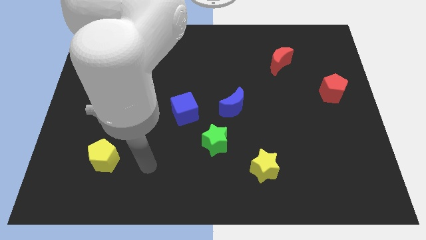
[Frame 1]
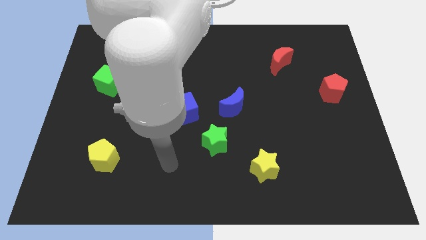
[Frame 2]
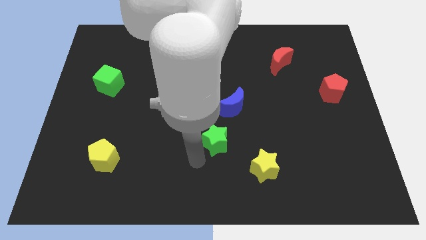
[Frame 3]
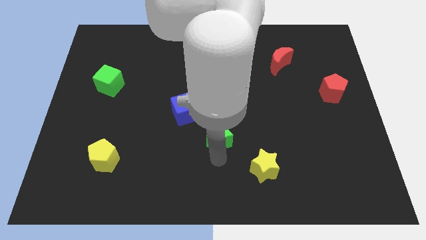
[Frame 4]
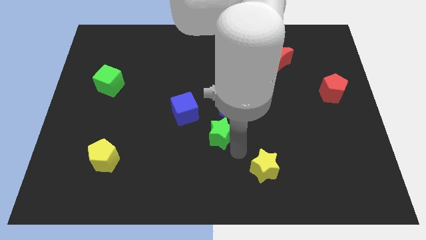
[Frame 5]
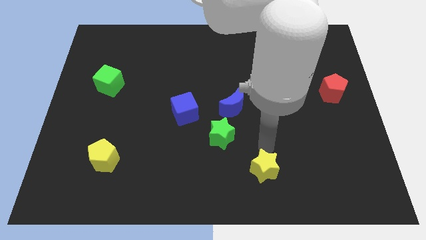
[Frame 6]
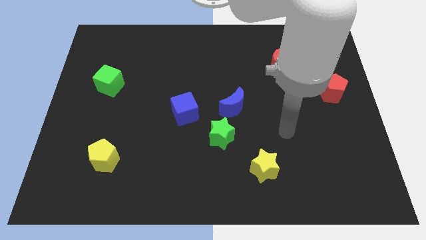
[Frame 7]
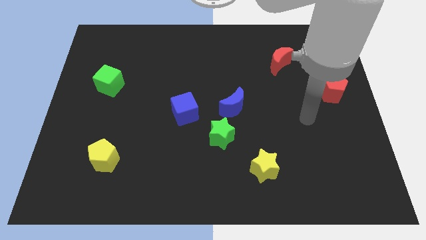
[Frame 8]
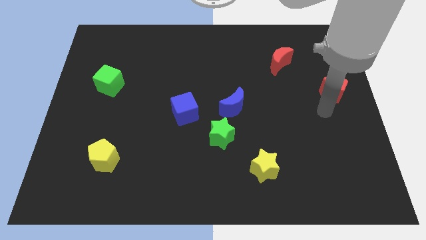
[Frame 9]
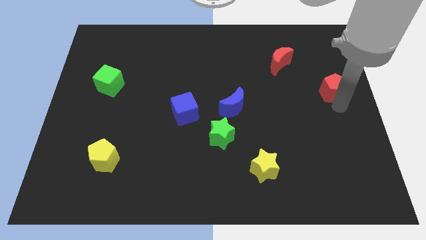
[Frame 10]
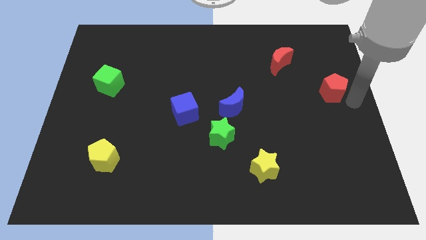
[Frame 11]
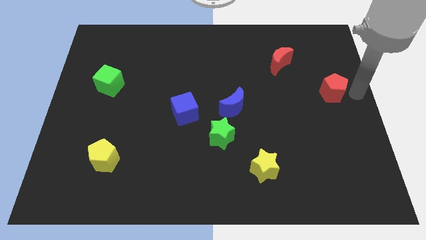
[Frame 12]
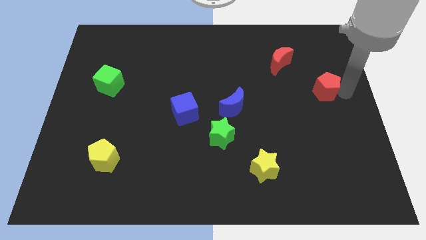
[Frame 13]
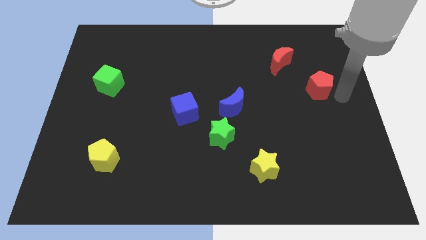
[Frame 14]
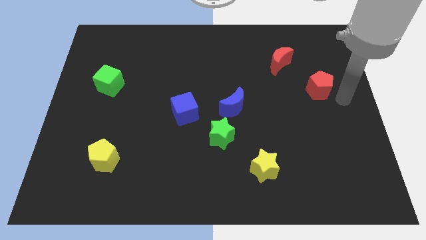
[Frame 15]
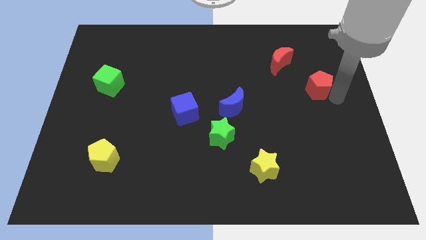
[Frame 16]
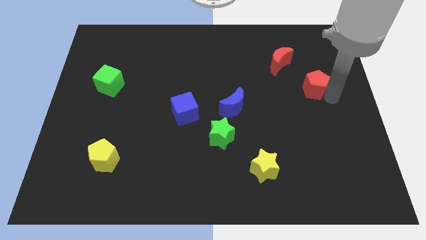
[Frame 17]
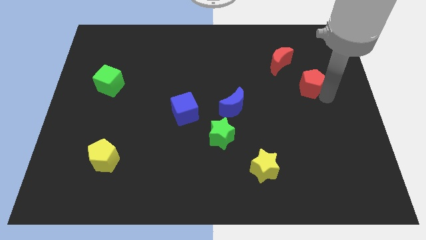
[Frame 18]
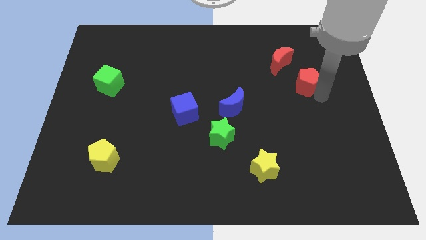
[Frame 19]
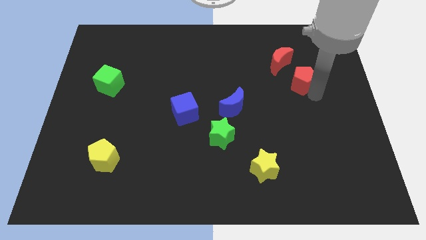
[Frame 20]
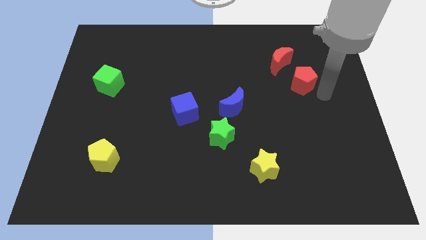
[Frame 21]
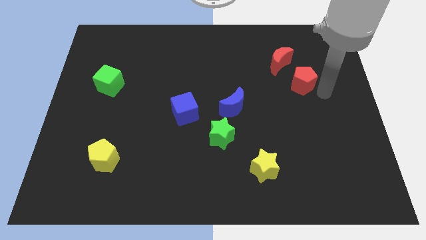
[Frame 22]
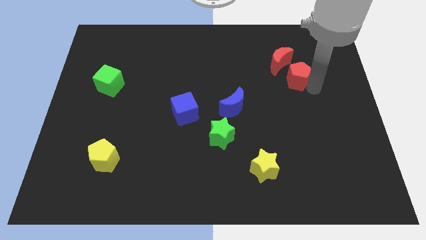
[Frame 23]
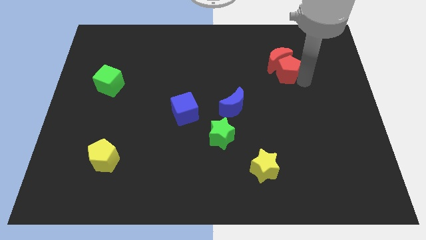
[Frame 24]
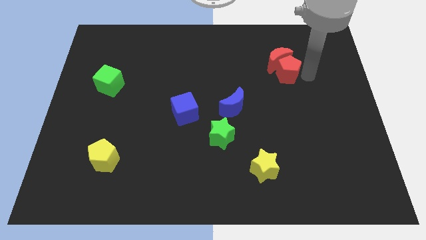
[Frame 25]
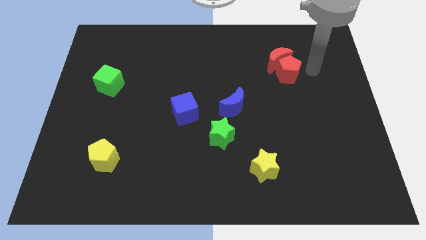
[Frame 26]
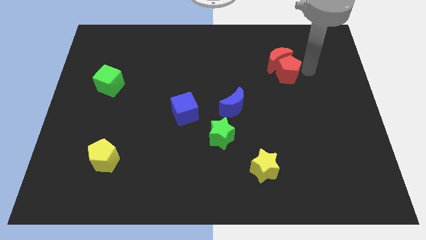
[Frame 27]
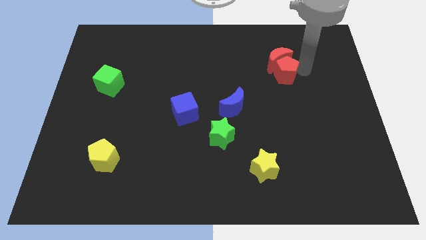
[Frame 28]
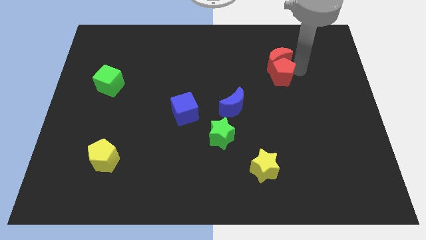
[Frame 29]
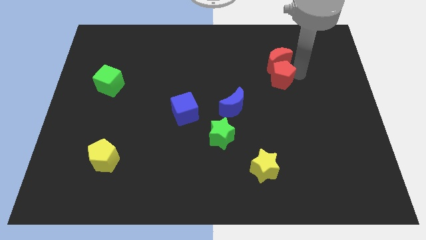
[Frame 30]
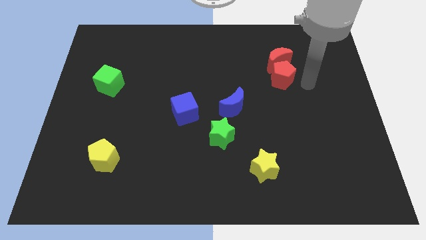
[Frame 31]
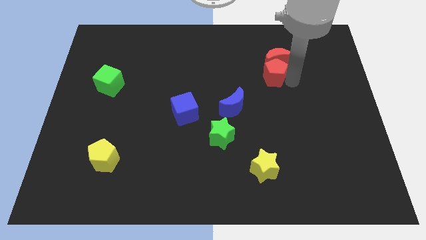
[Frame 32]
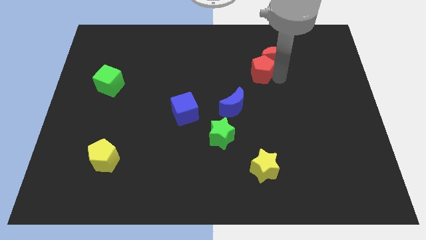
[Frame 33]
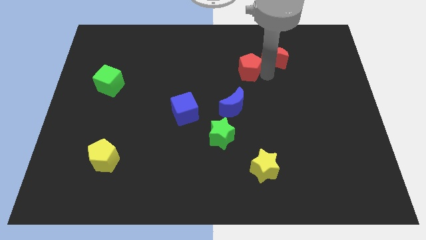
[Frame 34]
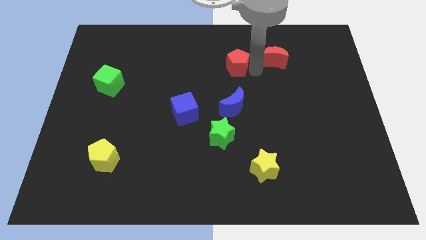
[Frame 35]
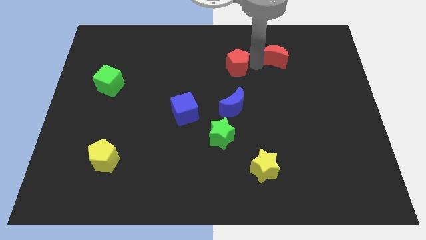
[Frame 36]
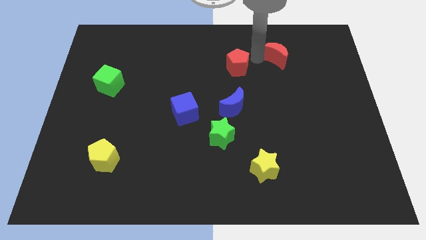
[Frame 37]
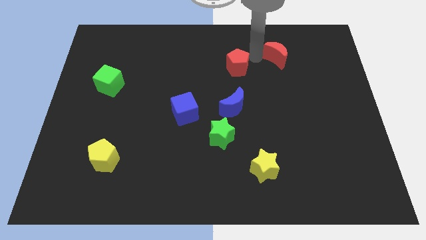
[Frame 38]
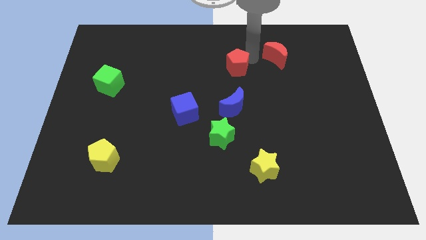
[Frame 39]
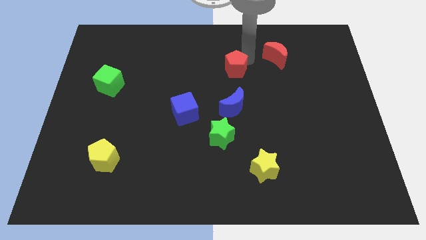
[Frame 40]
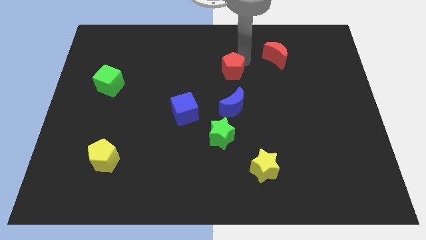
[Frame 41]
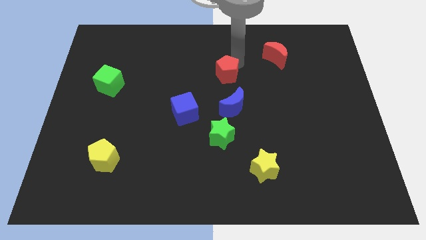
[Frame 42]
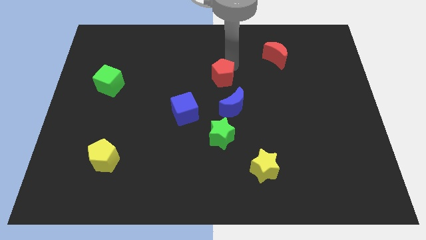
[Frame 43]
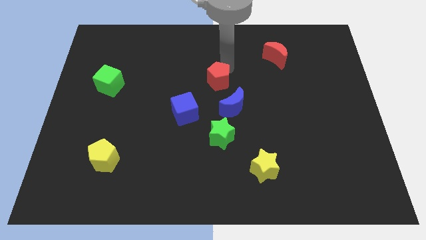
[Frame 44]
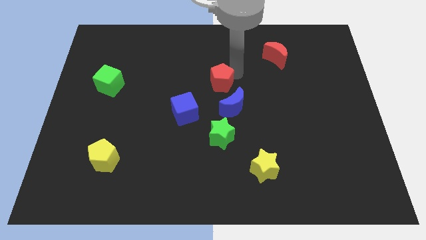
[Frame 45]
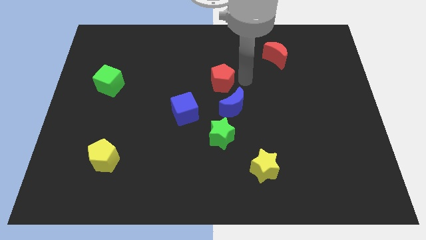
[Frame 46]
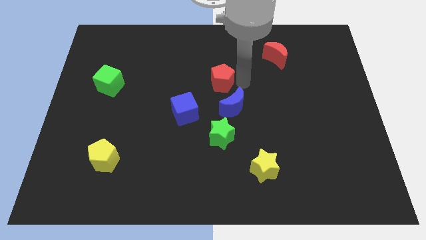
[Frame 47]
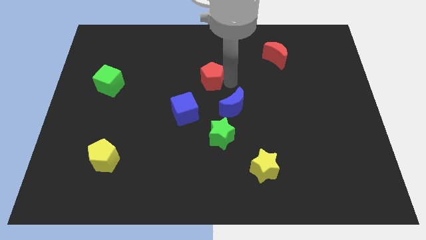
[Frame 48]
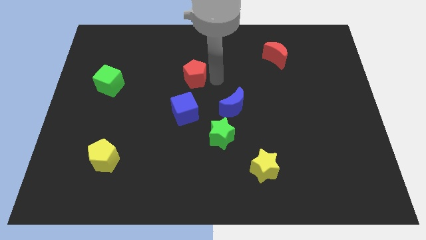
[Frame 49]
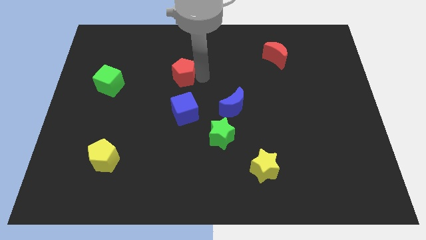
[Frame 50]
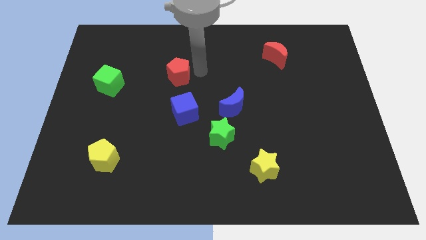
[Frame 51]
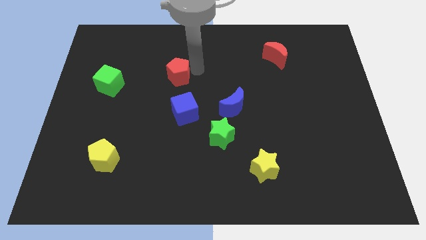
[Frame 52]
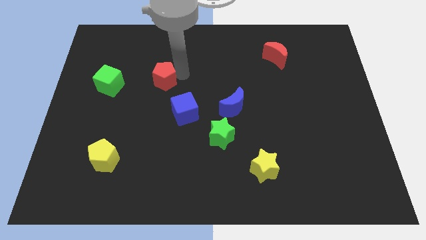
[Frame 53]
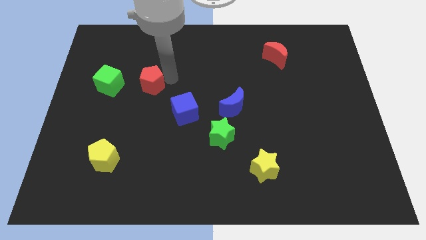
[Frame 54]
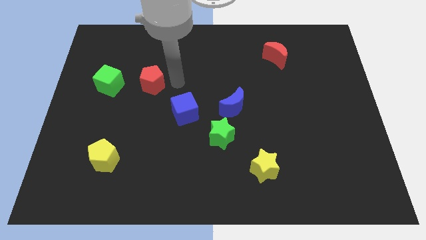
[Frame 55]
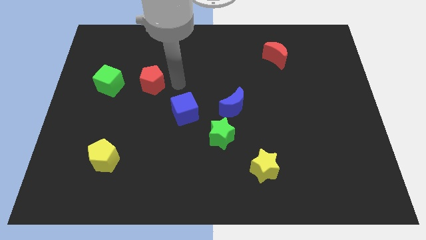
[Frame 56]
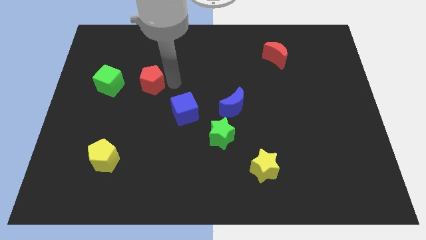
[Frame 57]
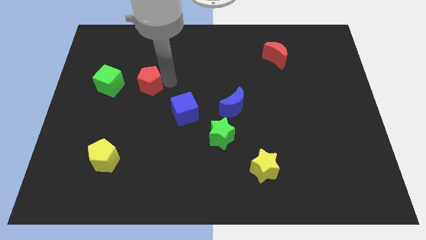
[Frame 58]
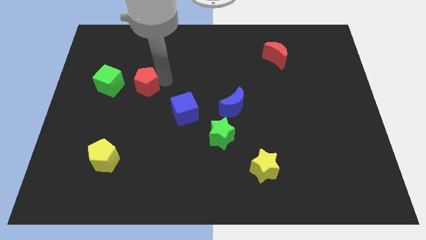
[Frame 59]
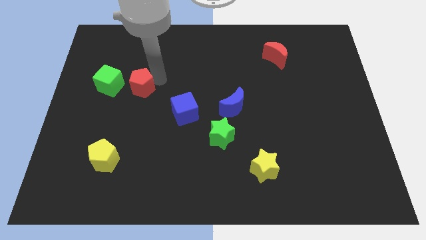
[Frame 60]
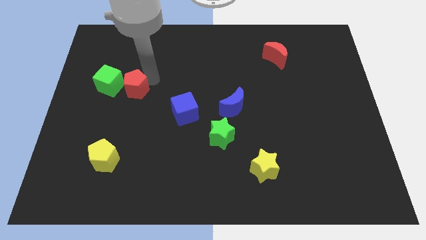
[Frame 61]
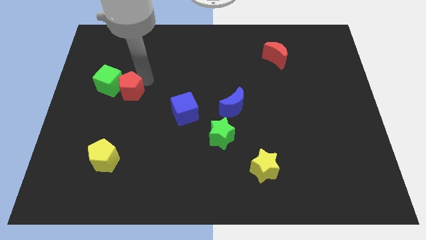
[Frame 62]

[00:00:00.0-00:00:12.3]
slide the red pentagon close to the green cube
